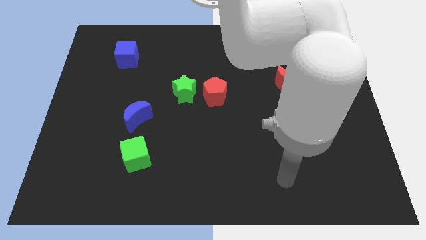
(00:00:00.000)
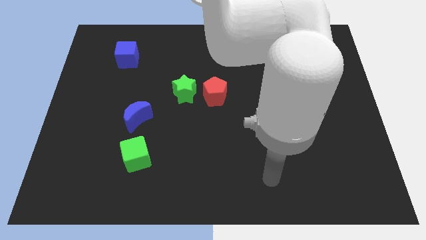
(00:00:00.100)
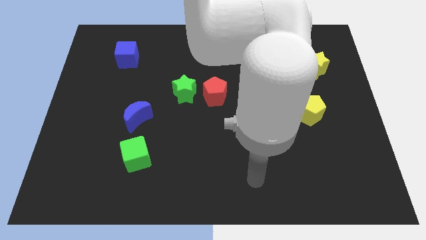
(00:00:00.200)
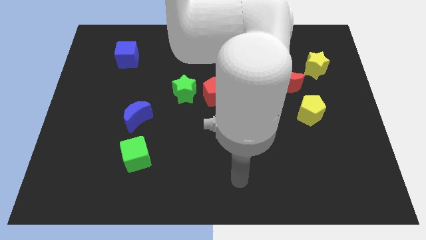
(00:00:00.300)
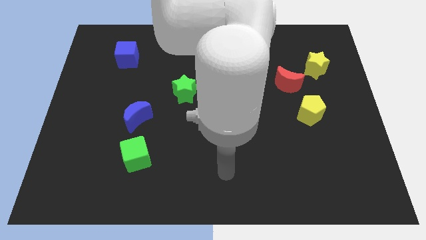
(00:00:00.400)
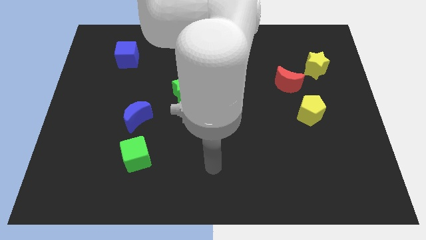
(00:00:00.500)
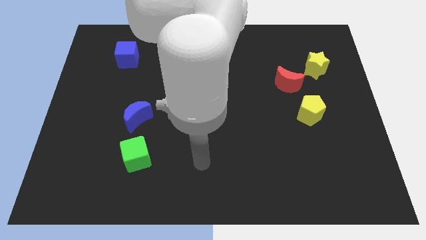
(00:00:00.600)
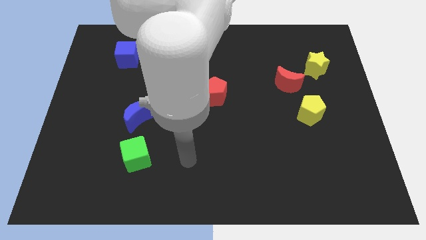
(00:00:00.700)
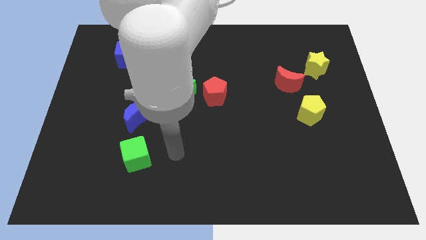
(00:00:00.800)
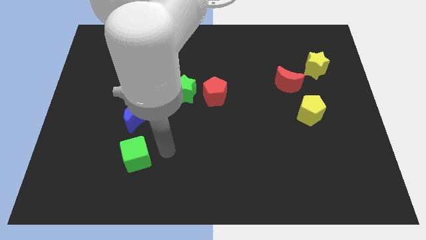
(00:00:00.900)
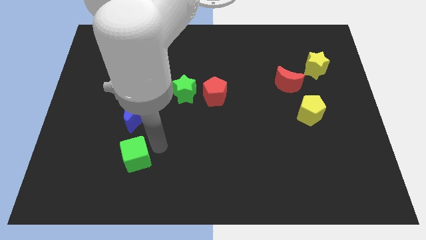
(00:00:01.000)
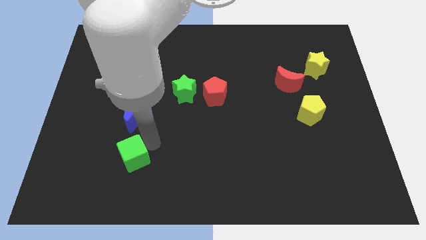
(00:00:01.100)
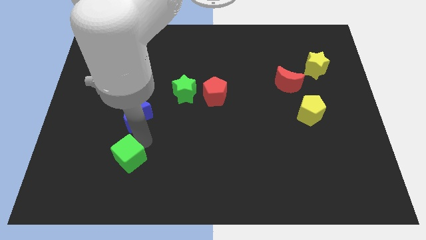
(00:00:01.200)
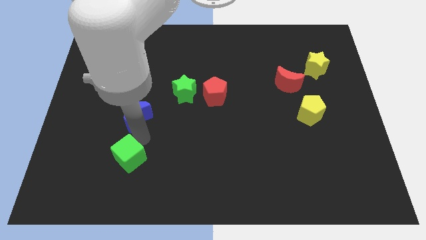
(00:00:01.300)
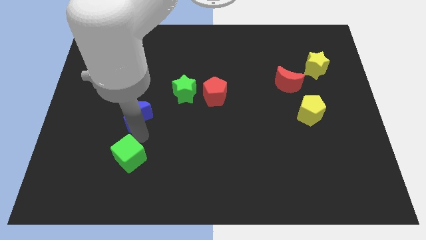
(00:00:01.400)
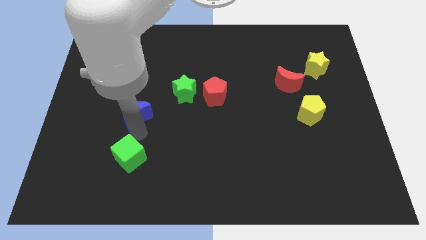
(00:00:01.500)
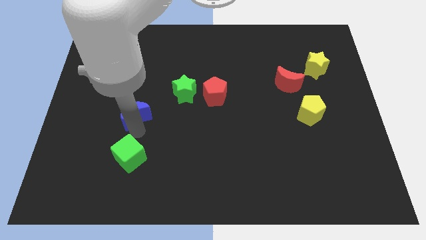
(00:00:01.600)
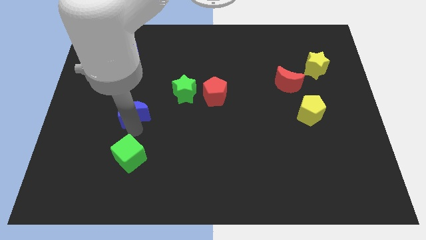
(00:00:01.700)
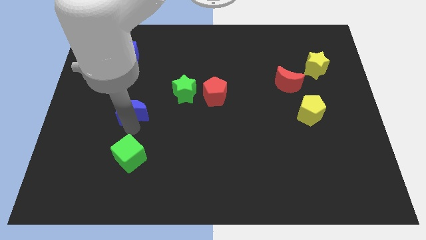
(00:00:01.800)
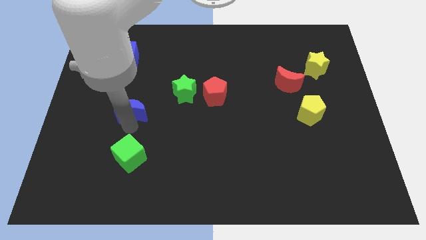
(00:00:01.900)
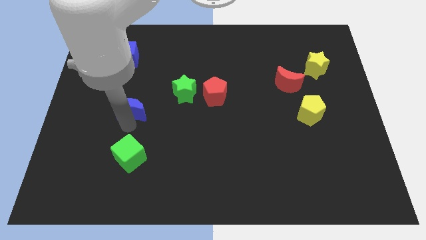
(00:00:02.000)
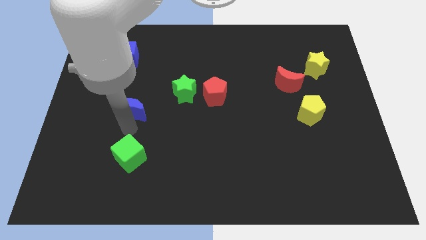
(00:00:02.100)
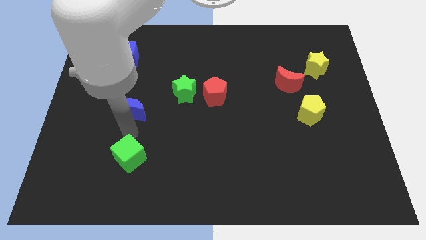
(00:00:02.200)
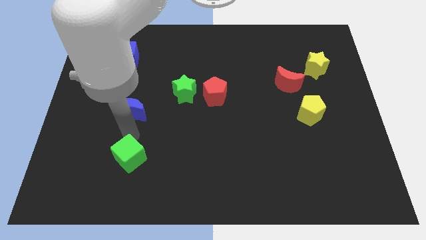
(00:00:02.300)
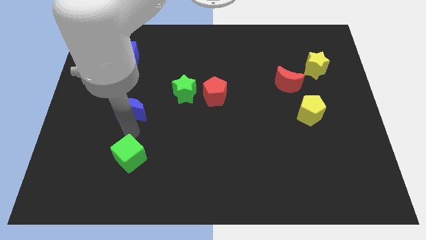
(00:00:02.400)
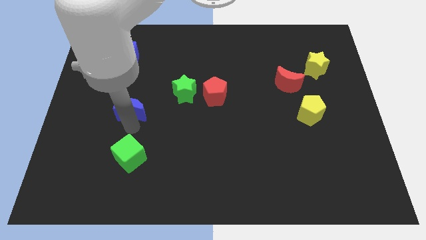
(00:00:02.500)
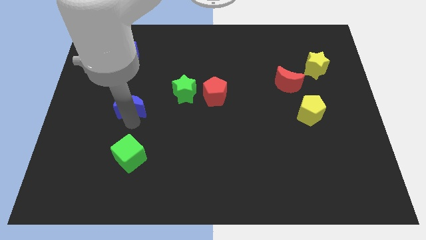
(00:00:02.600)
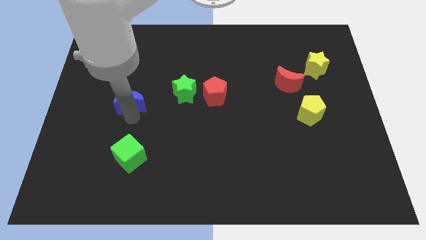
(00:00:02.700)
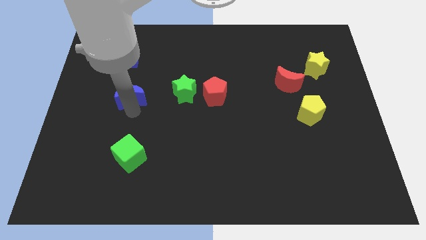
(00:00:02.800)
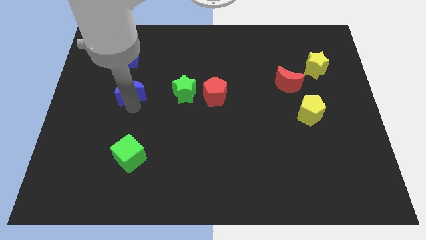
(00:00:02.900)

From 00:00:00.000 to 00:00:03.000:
push the blue moon up a bit

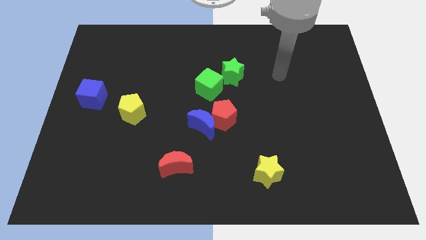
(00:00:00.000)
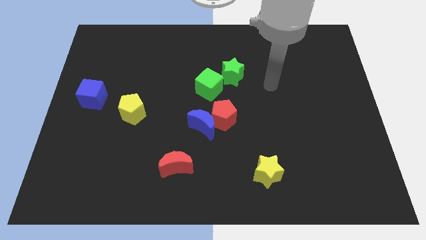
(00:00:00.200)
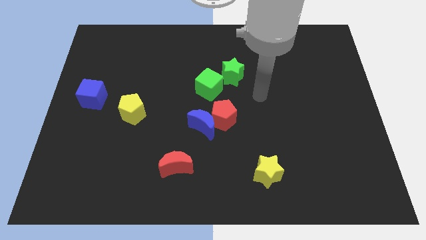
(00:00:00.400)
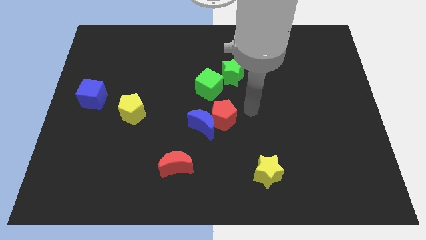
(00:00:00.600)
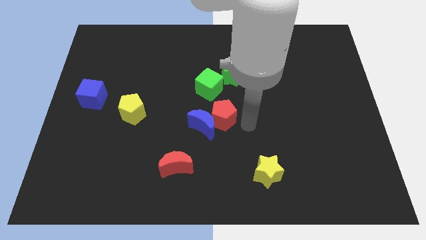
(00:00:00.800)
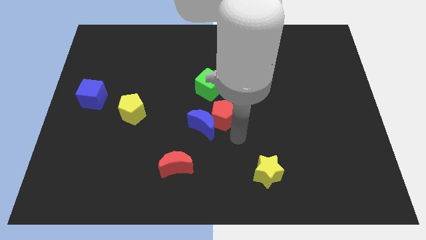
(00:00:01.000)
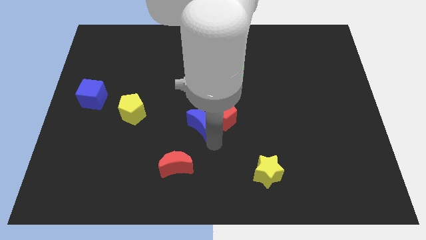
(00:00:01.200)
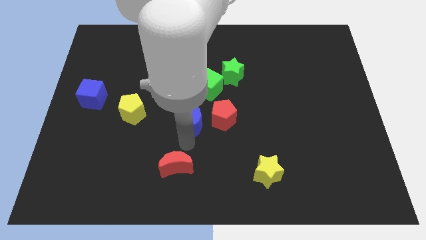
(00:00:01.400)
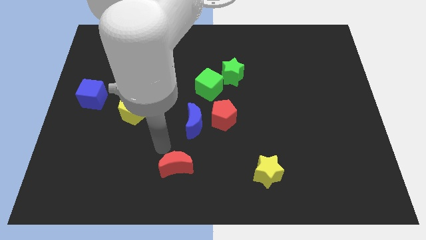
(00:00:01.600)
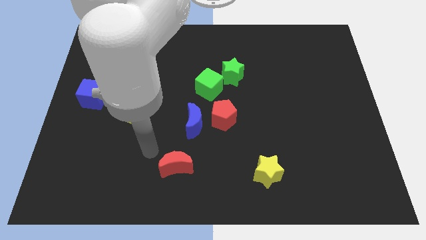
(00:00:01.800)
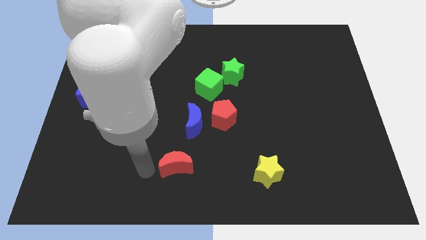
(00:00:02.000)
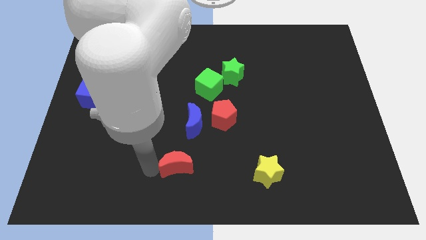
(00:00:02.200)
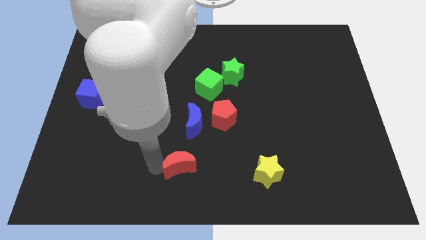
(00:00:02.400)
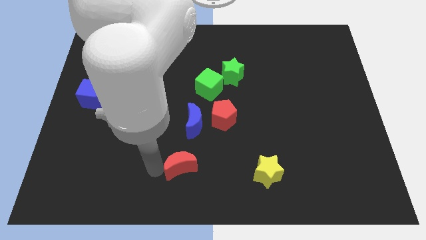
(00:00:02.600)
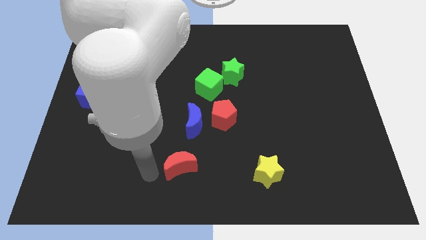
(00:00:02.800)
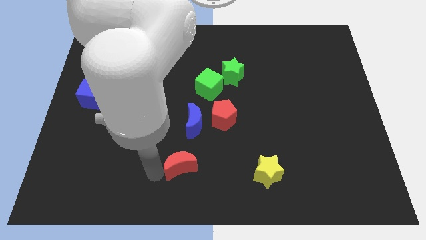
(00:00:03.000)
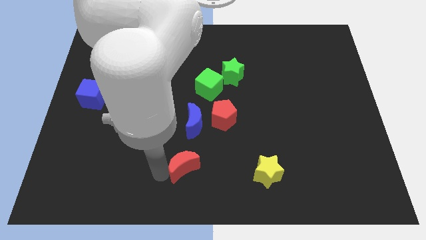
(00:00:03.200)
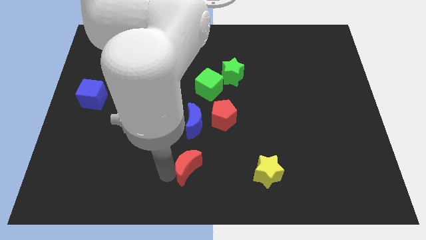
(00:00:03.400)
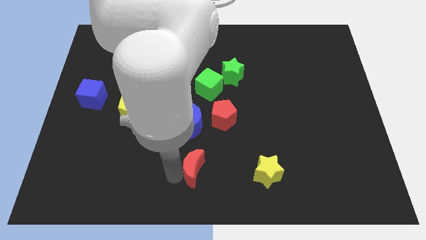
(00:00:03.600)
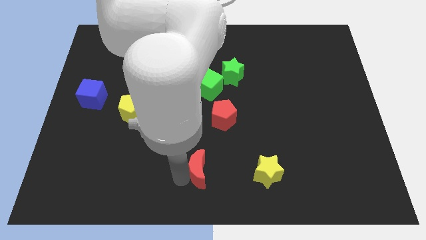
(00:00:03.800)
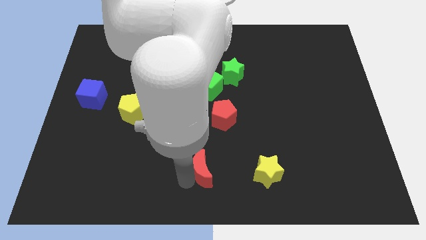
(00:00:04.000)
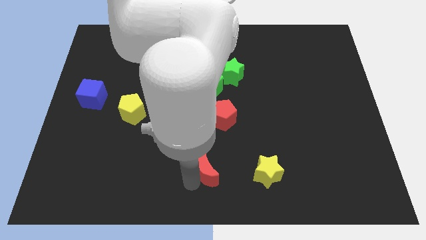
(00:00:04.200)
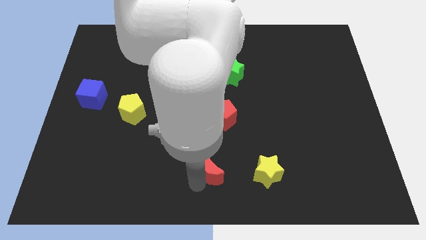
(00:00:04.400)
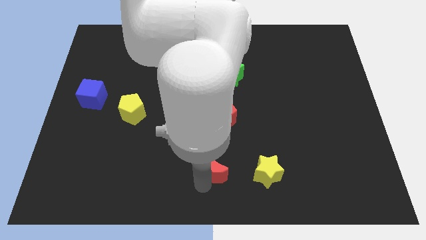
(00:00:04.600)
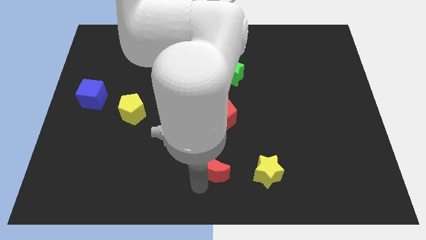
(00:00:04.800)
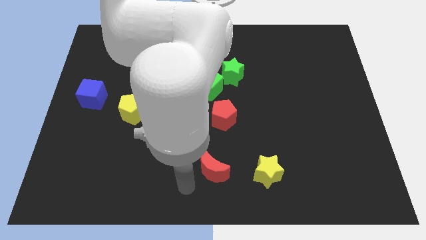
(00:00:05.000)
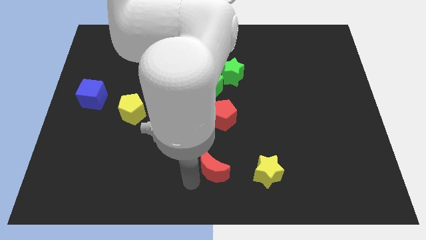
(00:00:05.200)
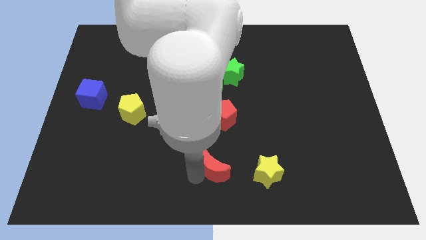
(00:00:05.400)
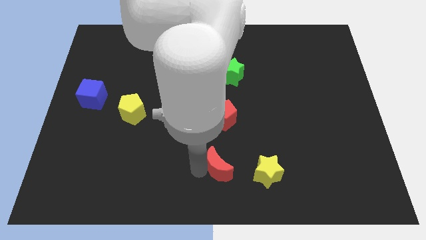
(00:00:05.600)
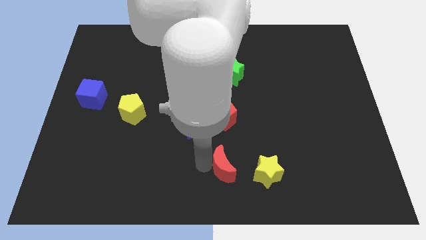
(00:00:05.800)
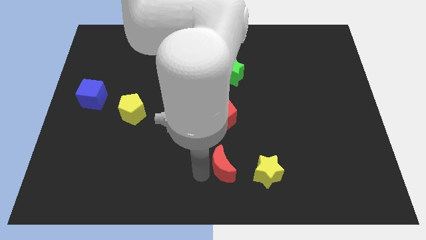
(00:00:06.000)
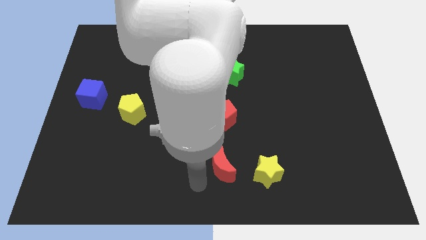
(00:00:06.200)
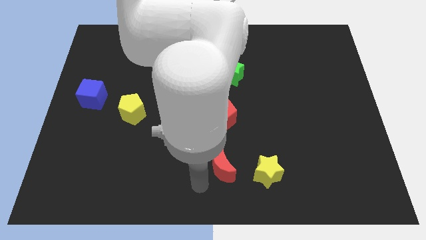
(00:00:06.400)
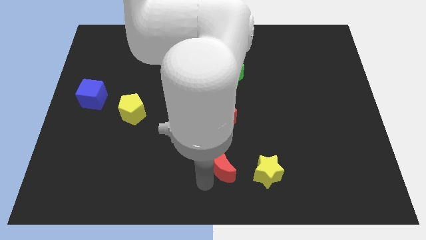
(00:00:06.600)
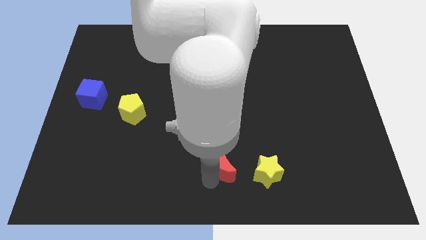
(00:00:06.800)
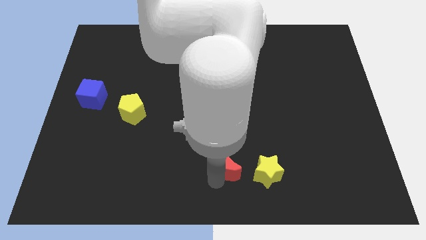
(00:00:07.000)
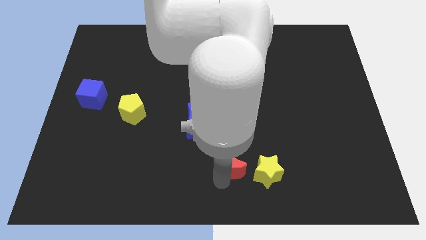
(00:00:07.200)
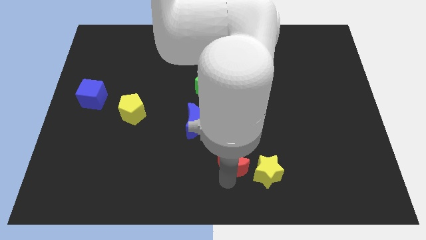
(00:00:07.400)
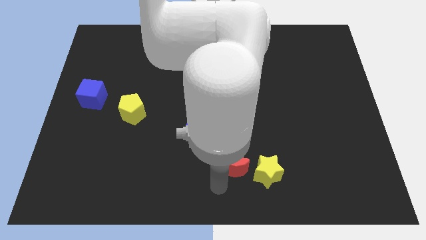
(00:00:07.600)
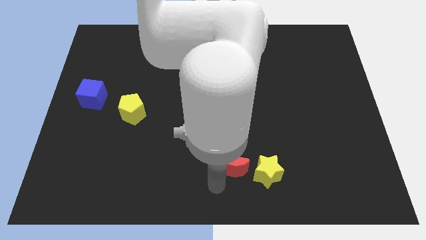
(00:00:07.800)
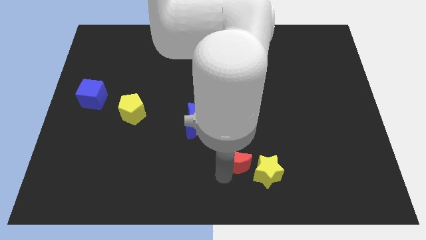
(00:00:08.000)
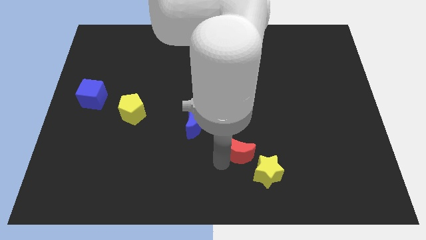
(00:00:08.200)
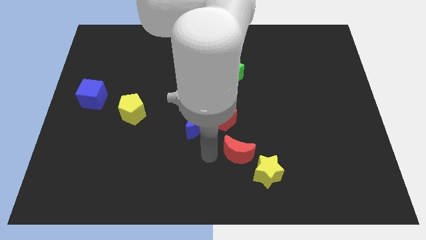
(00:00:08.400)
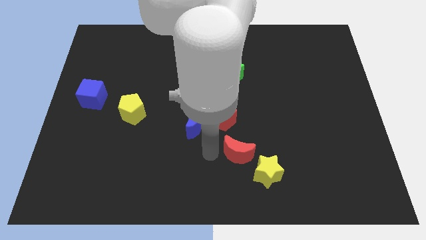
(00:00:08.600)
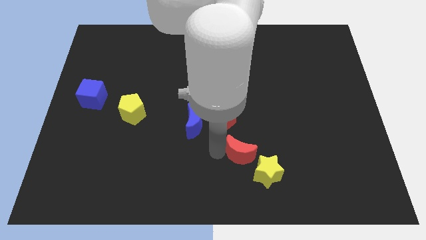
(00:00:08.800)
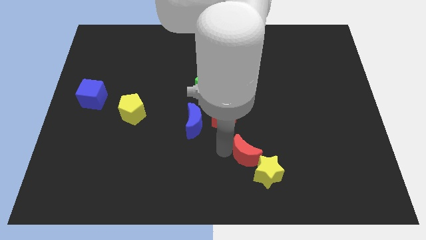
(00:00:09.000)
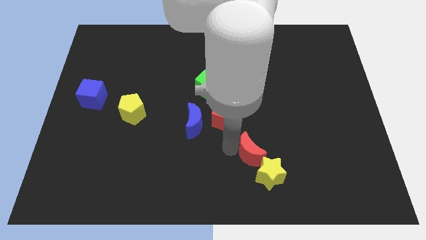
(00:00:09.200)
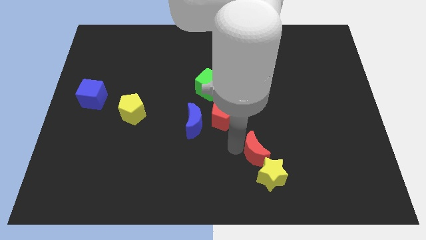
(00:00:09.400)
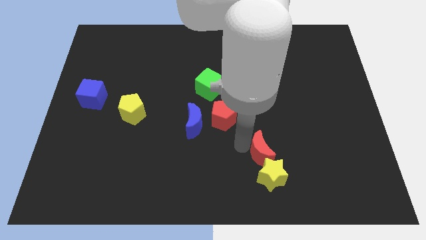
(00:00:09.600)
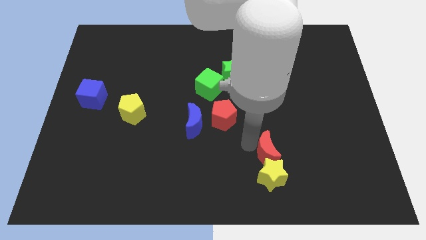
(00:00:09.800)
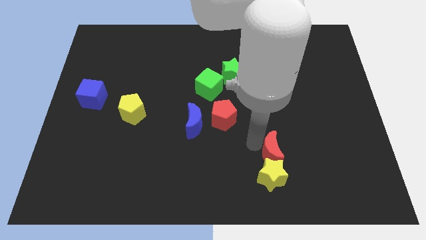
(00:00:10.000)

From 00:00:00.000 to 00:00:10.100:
move the red moon to the right
